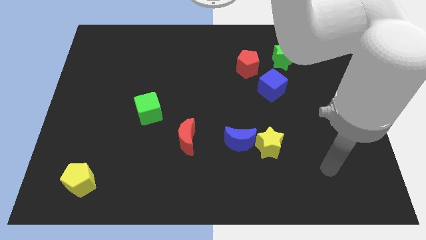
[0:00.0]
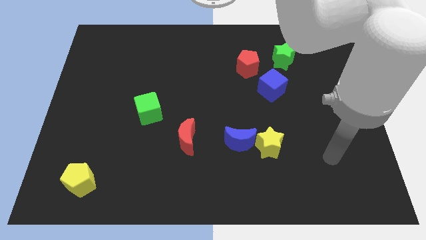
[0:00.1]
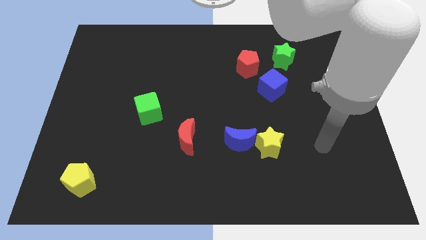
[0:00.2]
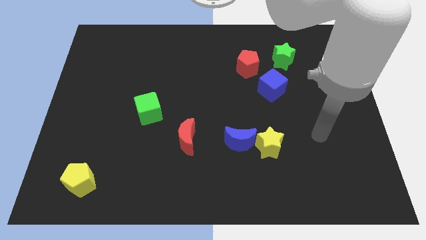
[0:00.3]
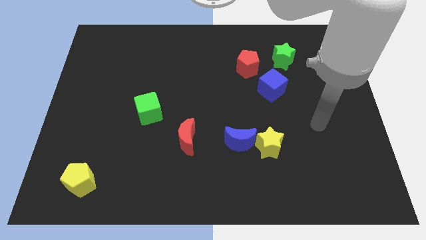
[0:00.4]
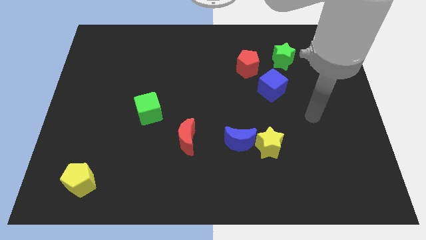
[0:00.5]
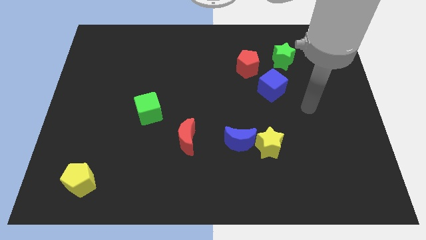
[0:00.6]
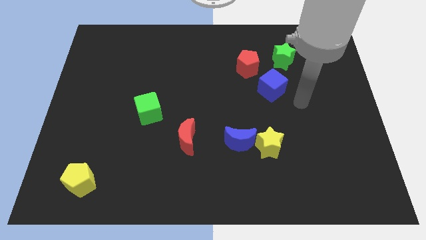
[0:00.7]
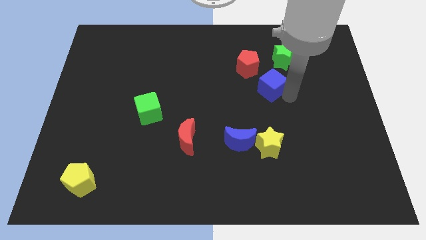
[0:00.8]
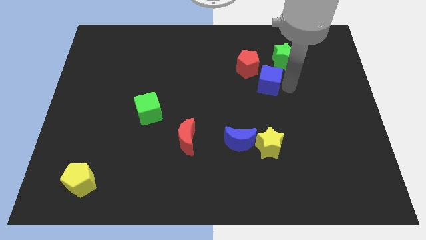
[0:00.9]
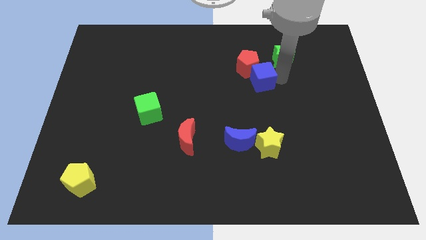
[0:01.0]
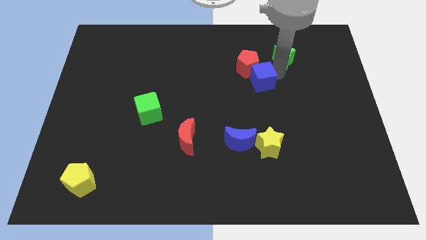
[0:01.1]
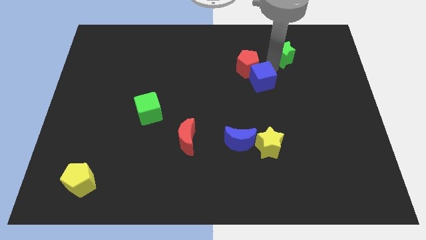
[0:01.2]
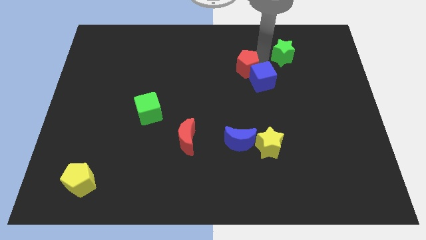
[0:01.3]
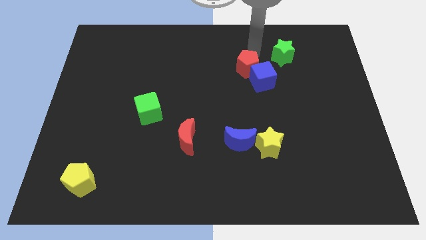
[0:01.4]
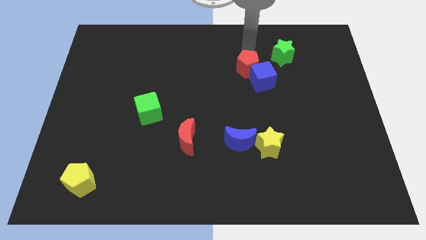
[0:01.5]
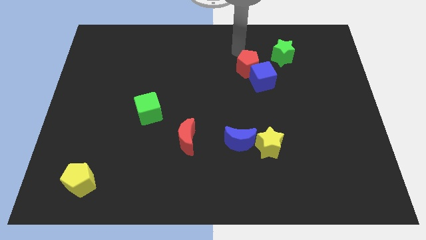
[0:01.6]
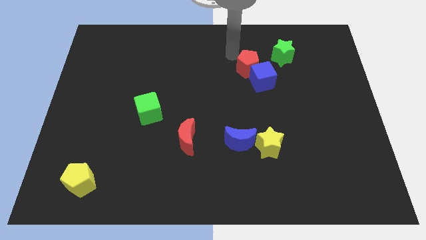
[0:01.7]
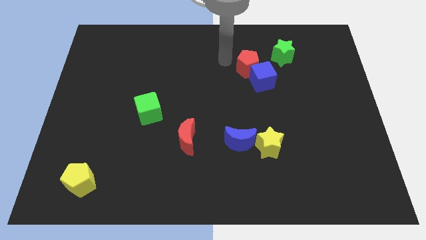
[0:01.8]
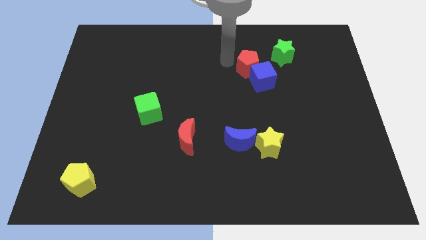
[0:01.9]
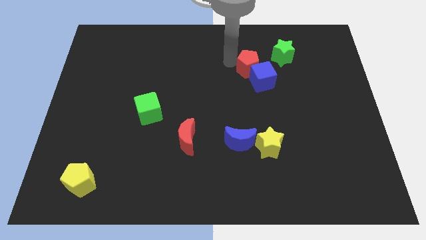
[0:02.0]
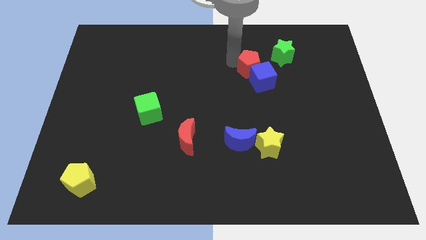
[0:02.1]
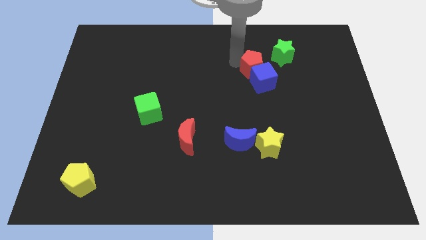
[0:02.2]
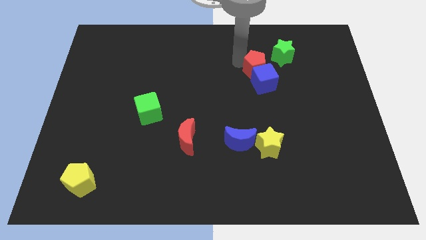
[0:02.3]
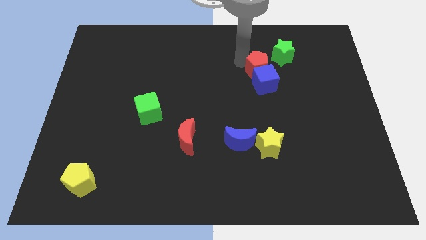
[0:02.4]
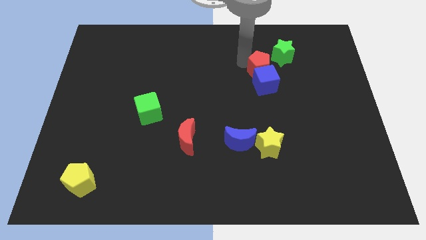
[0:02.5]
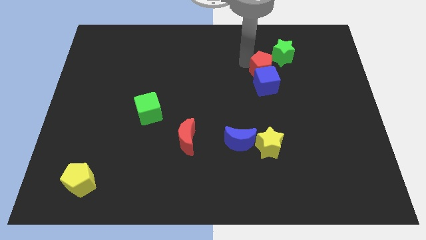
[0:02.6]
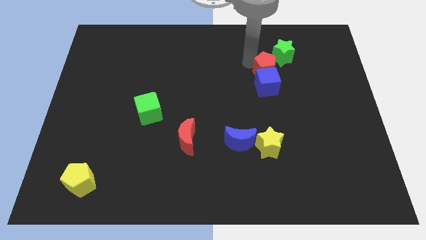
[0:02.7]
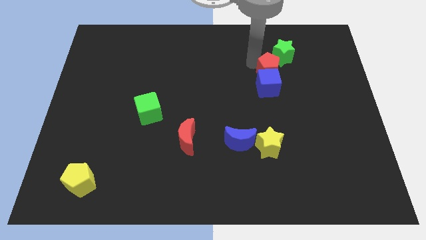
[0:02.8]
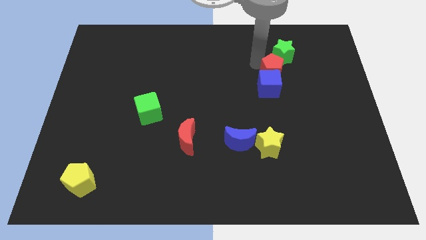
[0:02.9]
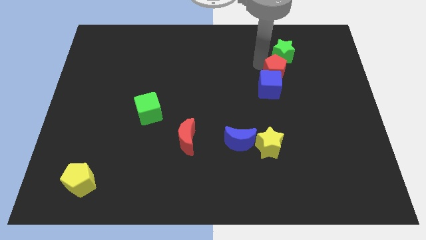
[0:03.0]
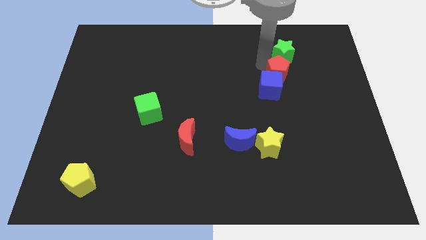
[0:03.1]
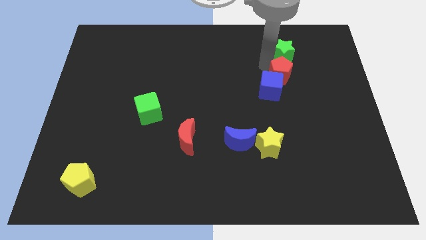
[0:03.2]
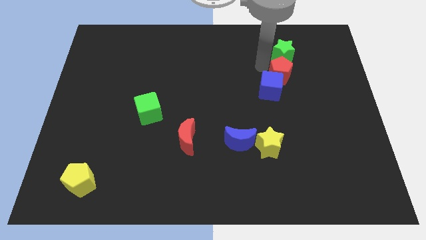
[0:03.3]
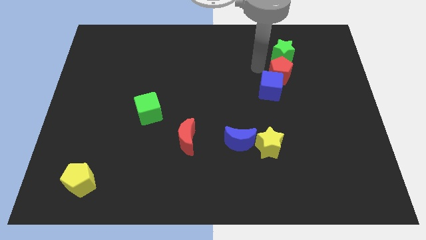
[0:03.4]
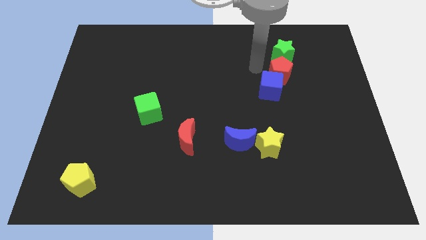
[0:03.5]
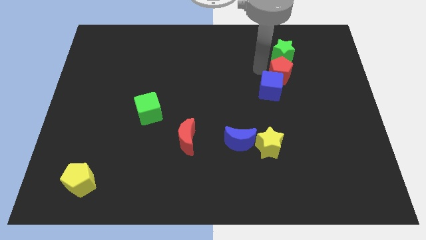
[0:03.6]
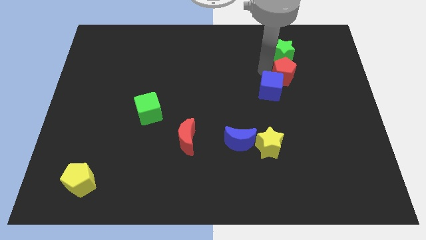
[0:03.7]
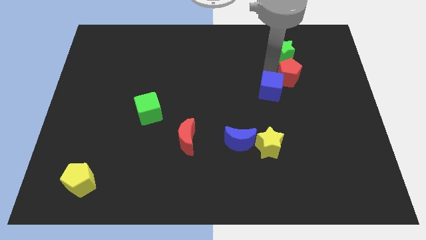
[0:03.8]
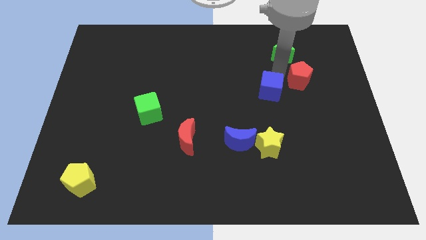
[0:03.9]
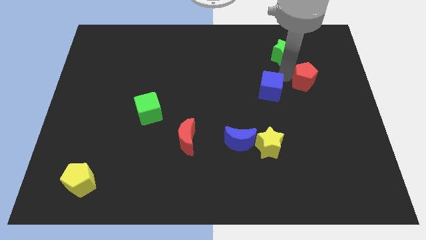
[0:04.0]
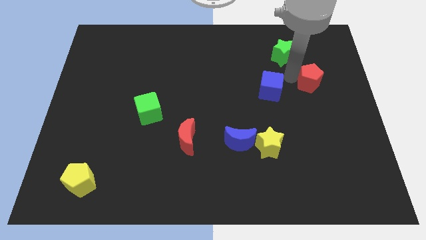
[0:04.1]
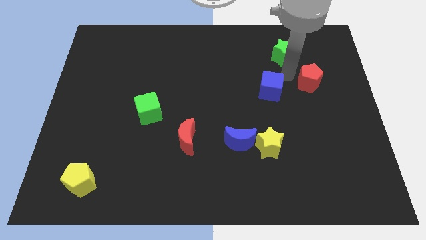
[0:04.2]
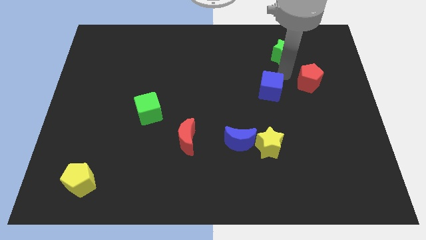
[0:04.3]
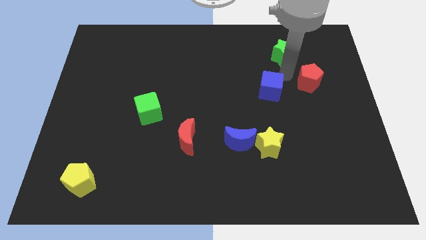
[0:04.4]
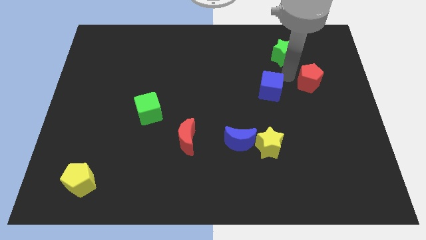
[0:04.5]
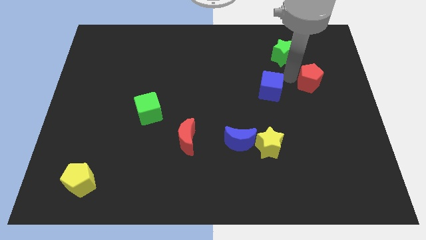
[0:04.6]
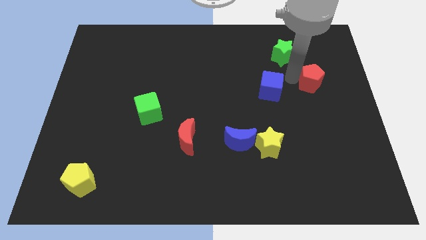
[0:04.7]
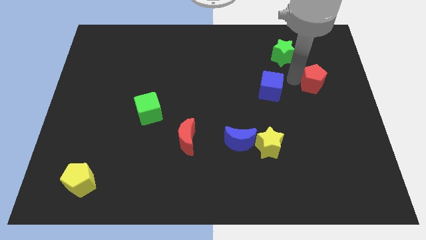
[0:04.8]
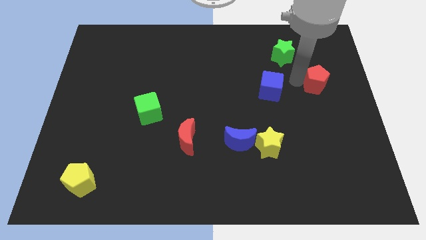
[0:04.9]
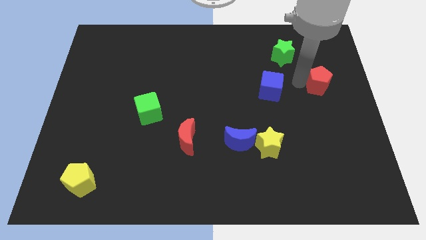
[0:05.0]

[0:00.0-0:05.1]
put the red pentagon to the right side

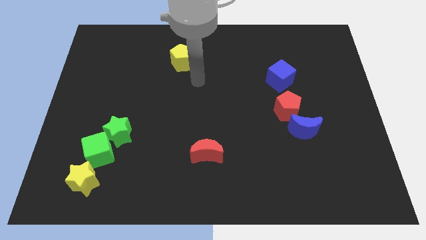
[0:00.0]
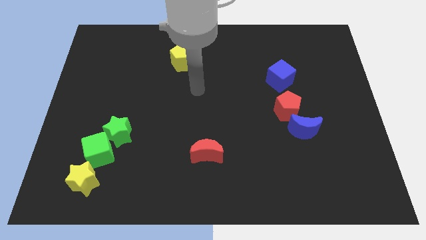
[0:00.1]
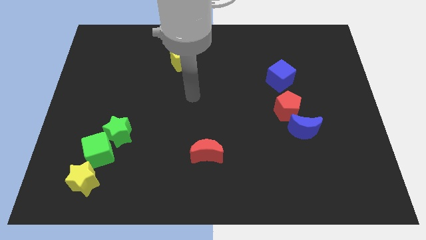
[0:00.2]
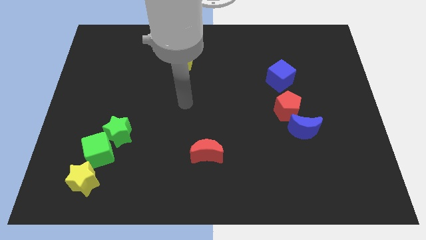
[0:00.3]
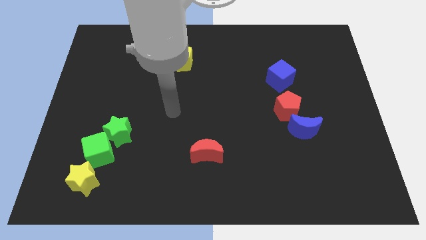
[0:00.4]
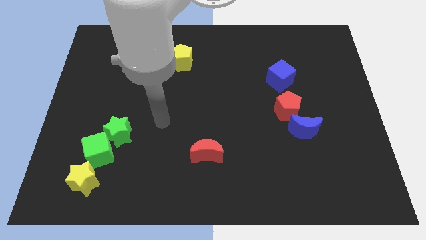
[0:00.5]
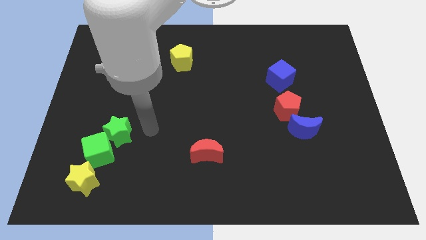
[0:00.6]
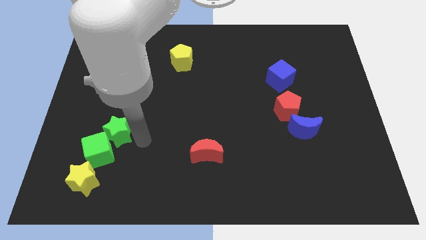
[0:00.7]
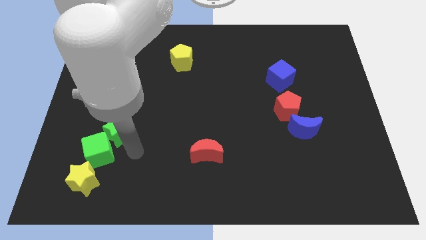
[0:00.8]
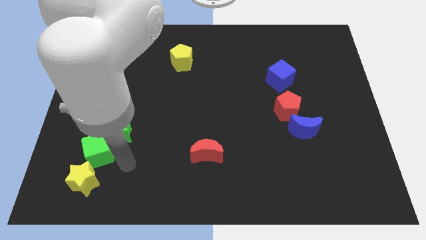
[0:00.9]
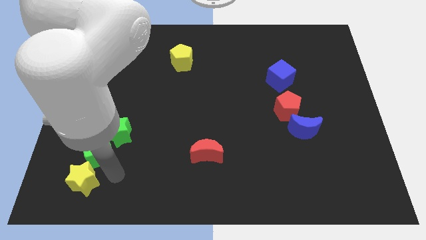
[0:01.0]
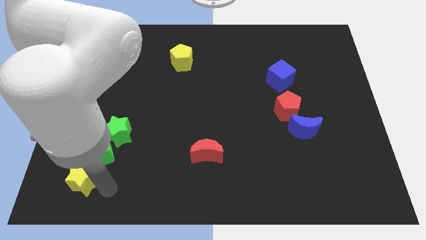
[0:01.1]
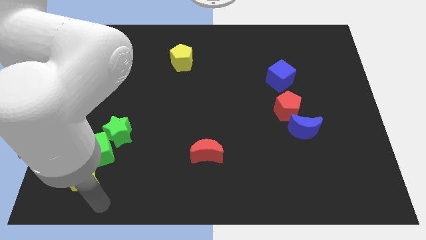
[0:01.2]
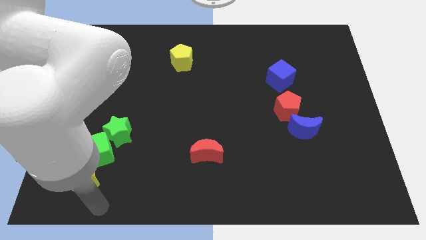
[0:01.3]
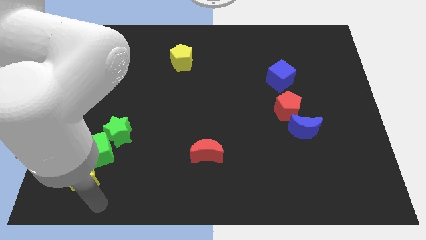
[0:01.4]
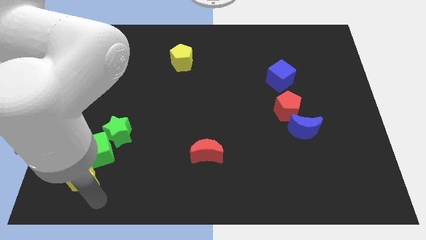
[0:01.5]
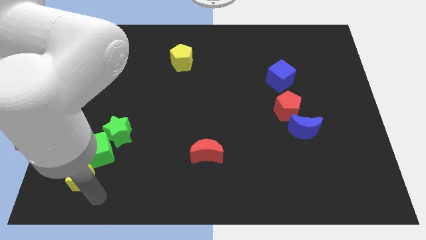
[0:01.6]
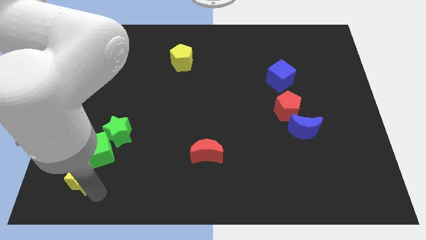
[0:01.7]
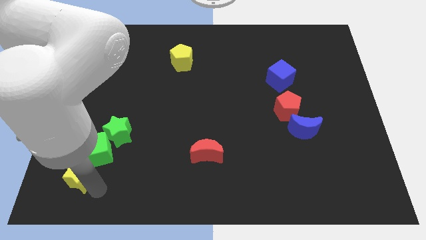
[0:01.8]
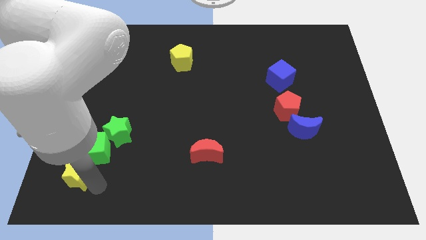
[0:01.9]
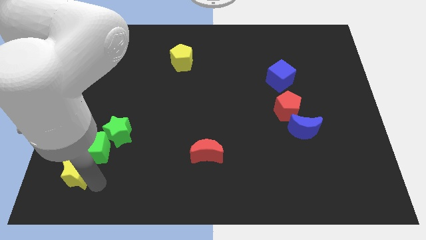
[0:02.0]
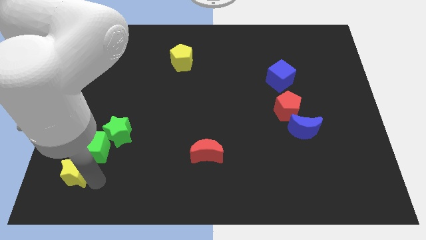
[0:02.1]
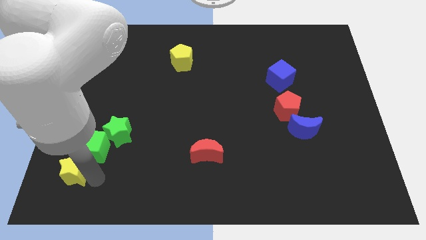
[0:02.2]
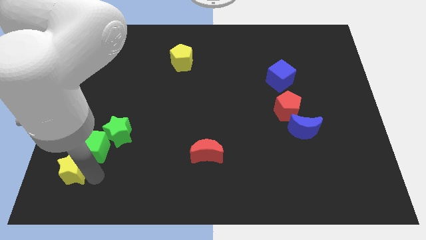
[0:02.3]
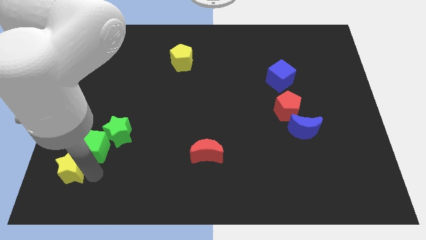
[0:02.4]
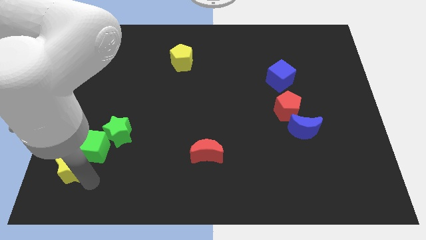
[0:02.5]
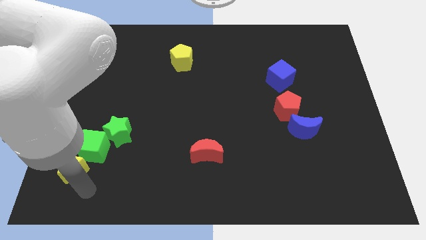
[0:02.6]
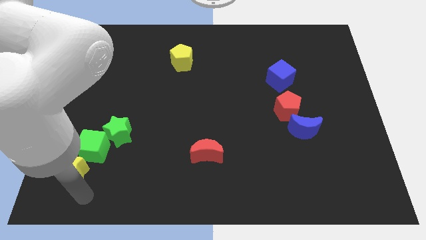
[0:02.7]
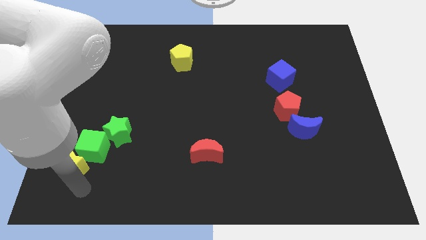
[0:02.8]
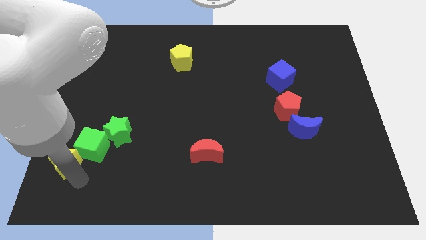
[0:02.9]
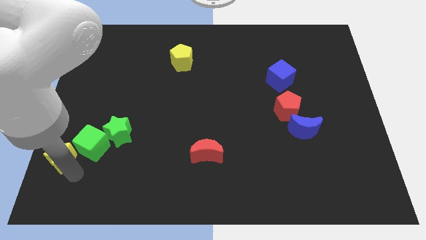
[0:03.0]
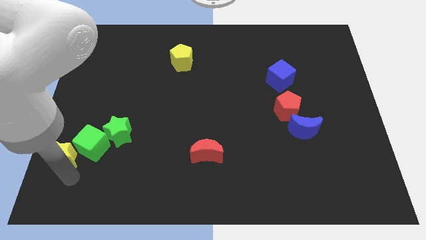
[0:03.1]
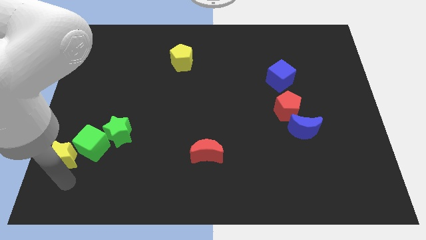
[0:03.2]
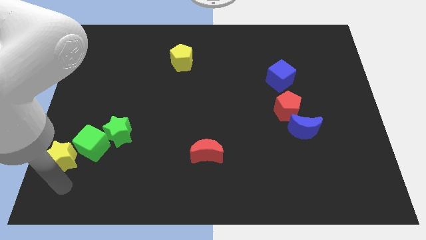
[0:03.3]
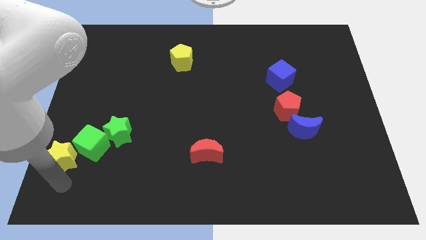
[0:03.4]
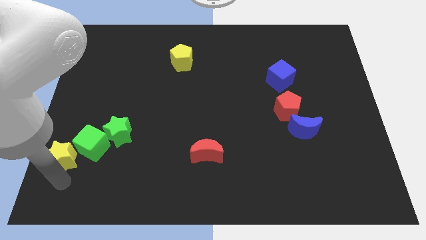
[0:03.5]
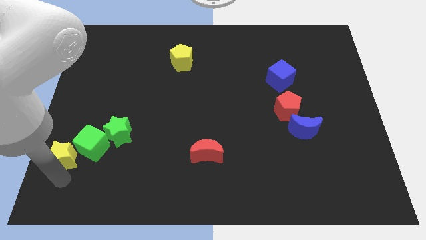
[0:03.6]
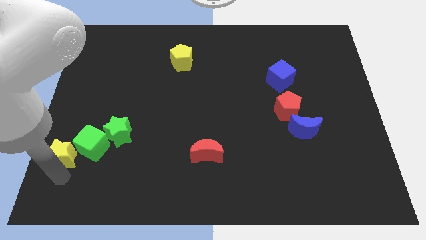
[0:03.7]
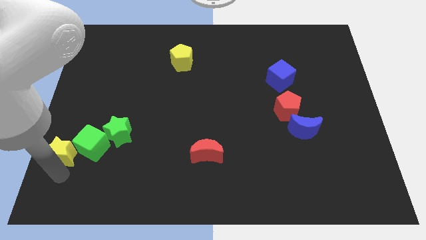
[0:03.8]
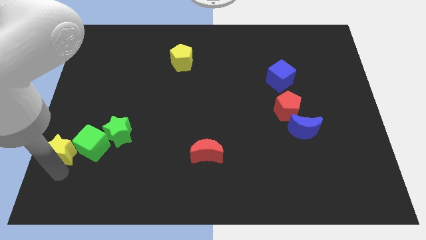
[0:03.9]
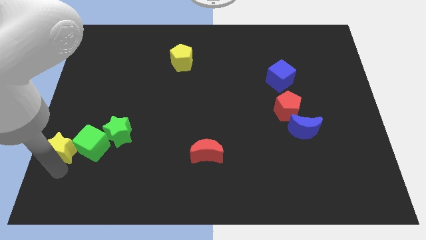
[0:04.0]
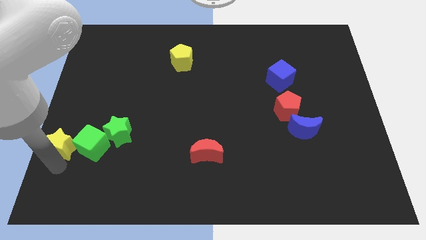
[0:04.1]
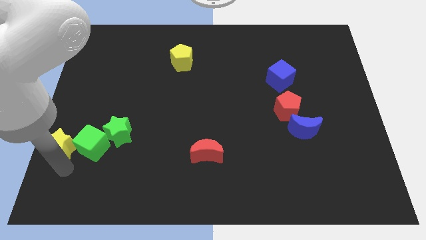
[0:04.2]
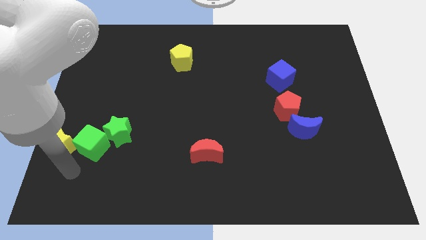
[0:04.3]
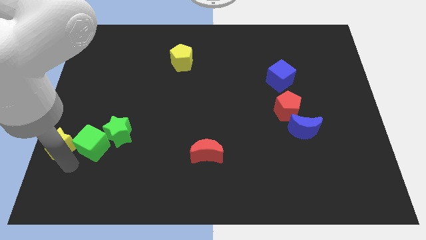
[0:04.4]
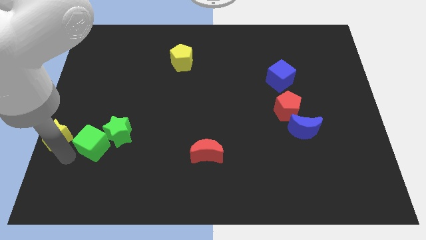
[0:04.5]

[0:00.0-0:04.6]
put the yellow star to the left side
